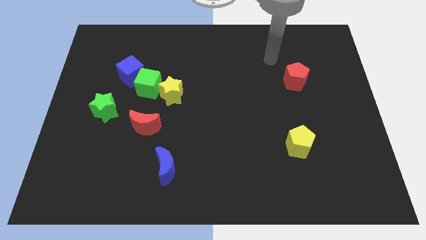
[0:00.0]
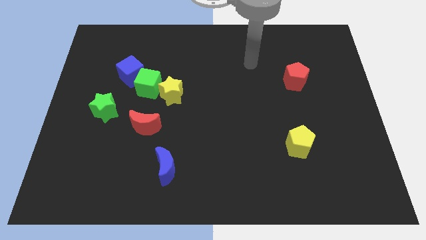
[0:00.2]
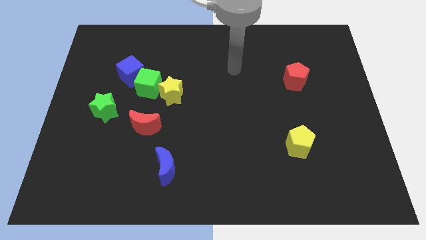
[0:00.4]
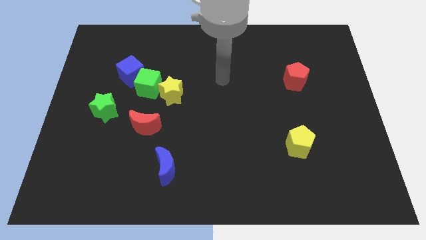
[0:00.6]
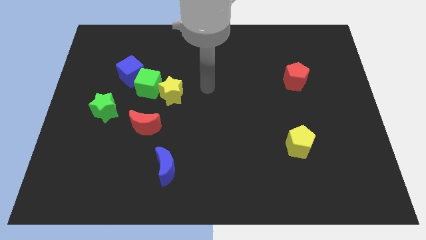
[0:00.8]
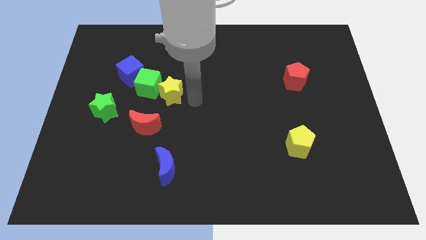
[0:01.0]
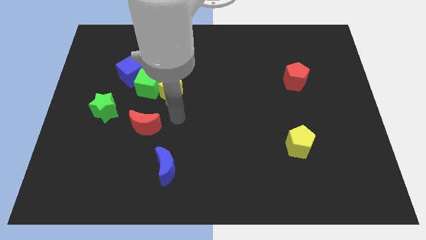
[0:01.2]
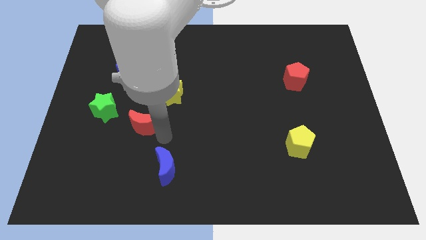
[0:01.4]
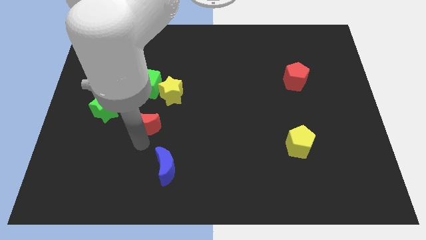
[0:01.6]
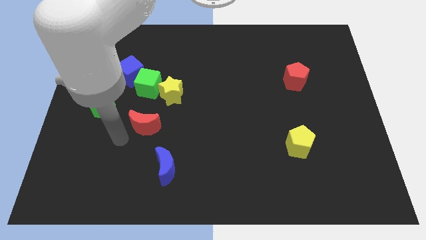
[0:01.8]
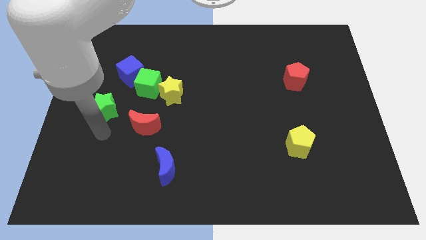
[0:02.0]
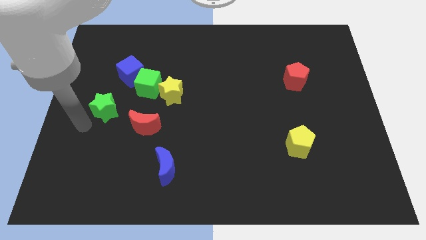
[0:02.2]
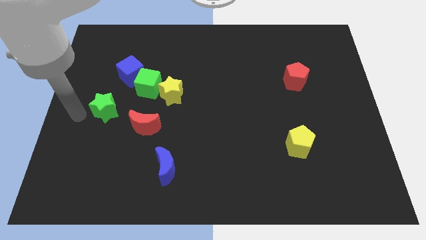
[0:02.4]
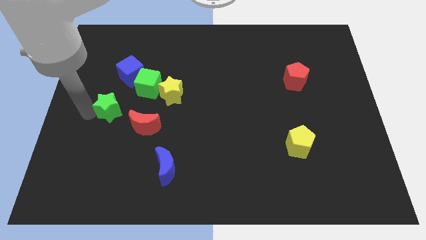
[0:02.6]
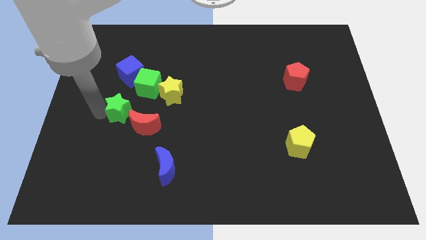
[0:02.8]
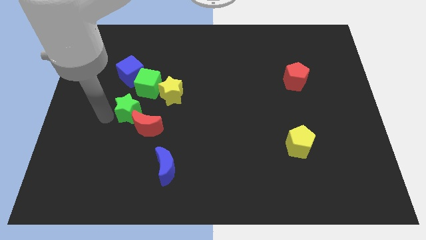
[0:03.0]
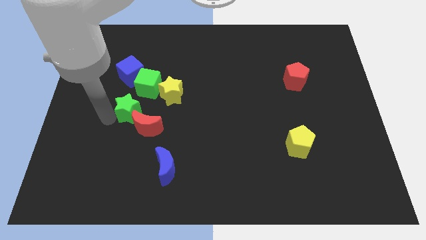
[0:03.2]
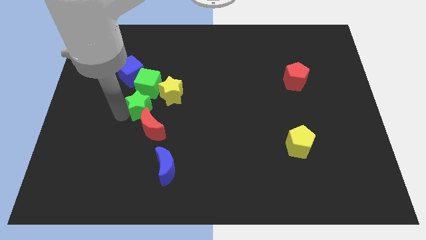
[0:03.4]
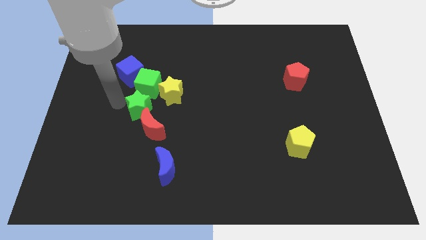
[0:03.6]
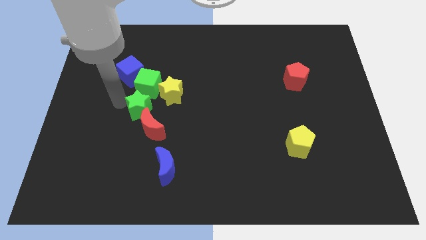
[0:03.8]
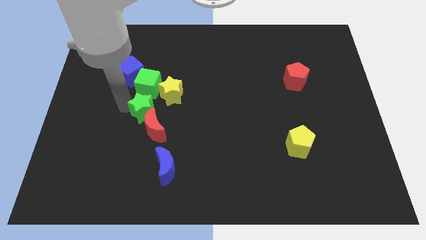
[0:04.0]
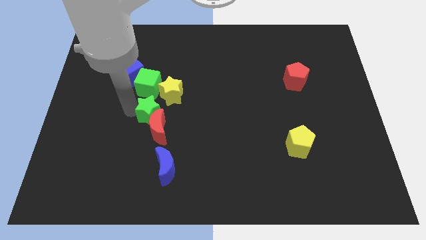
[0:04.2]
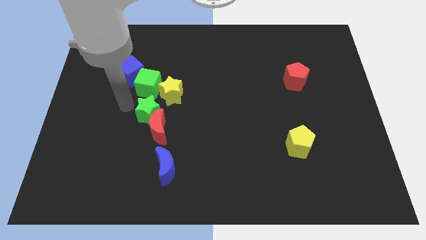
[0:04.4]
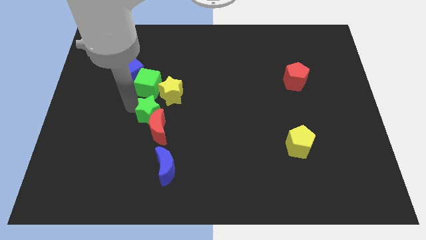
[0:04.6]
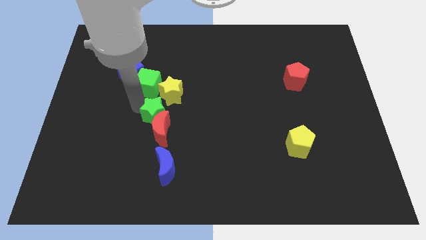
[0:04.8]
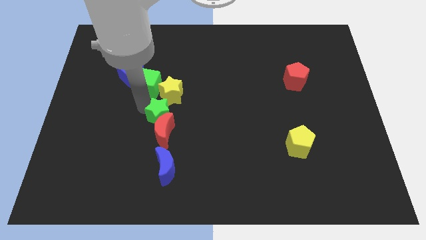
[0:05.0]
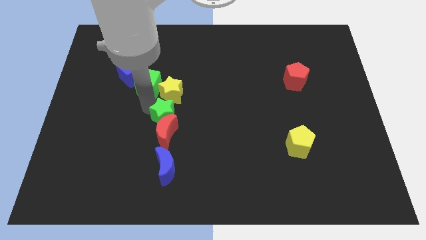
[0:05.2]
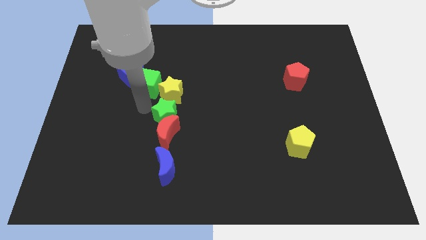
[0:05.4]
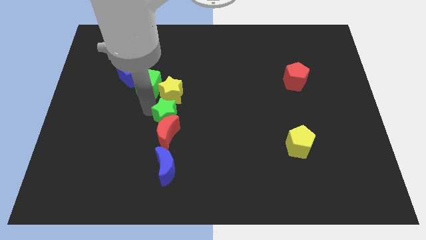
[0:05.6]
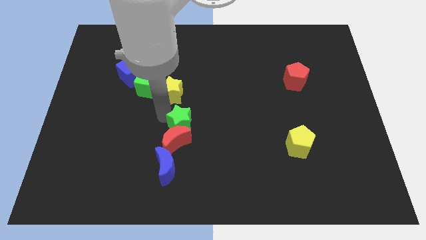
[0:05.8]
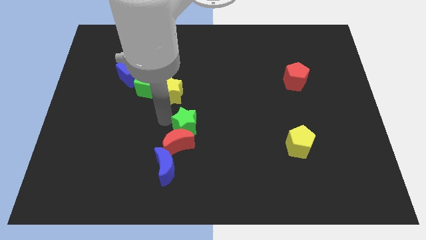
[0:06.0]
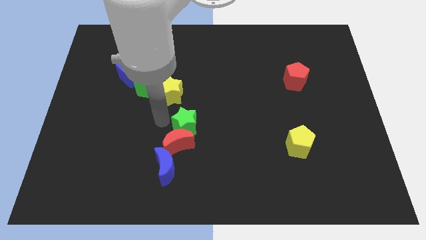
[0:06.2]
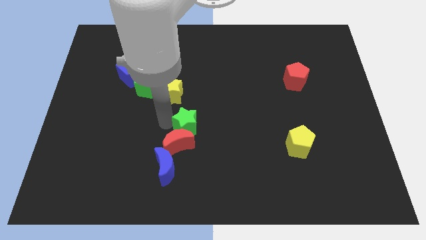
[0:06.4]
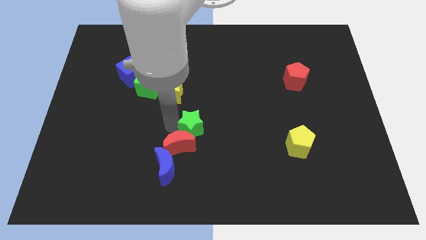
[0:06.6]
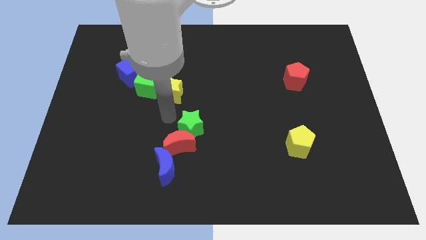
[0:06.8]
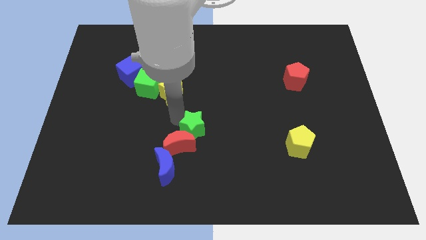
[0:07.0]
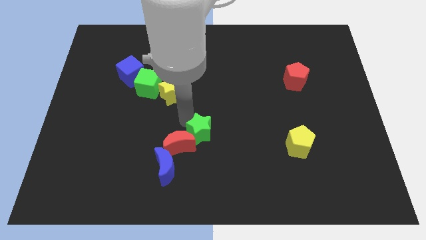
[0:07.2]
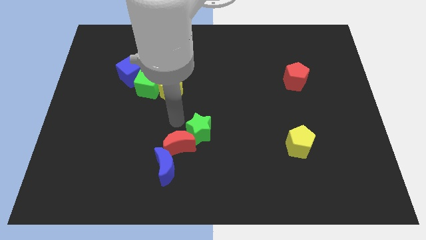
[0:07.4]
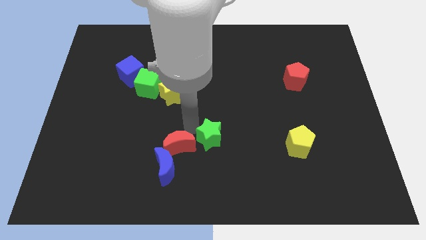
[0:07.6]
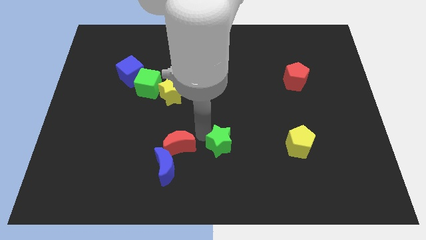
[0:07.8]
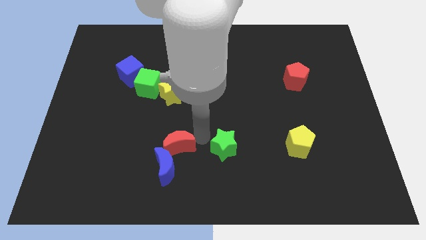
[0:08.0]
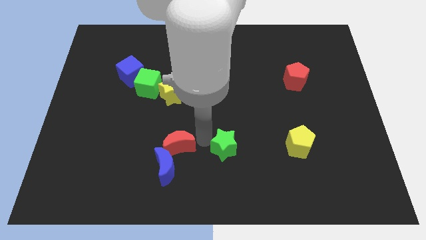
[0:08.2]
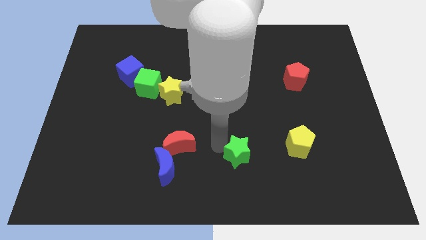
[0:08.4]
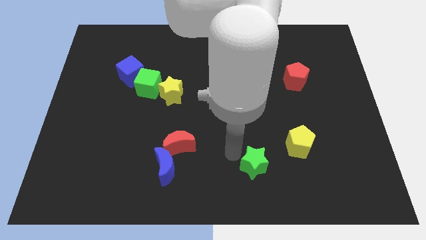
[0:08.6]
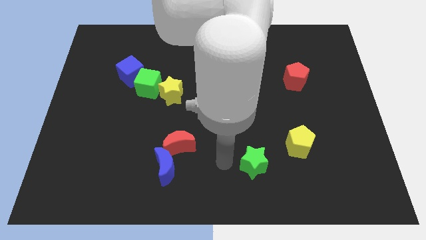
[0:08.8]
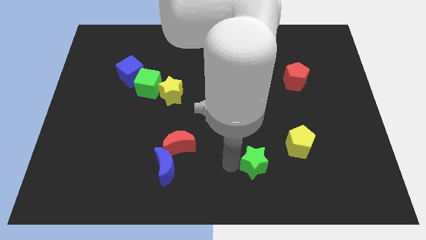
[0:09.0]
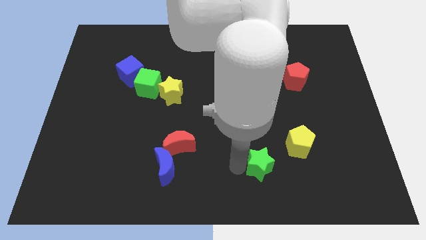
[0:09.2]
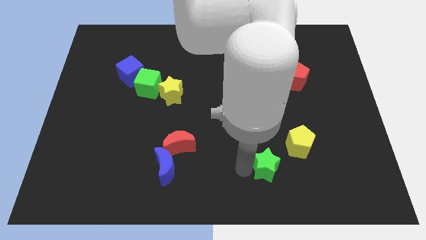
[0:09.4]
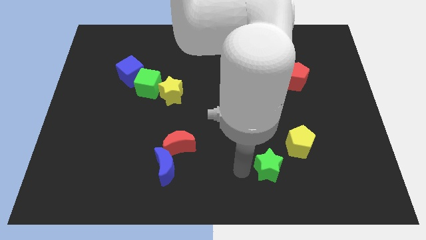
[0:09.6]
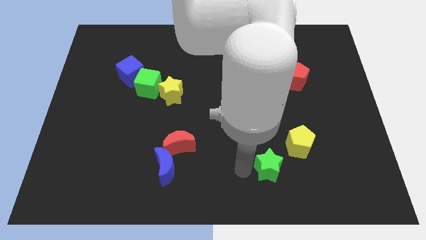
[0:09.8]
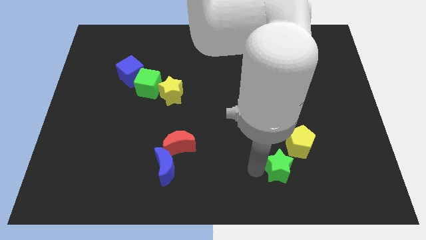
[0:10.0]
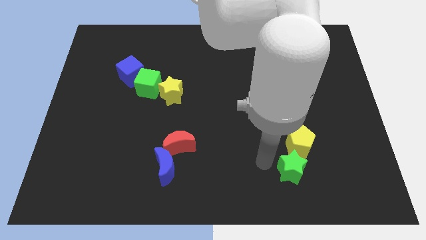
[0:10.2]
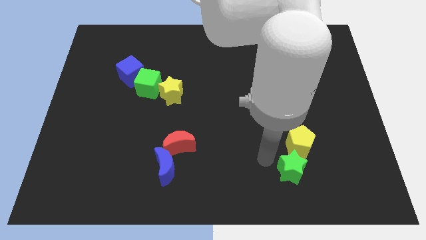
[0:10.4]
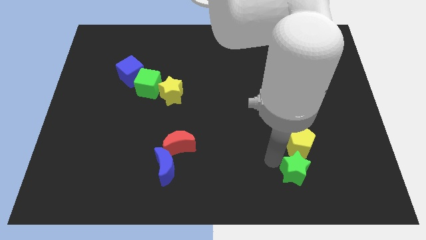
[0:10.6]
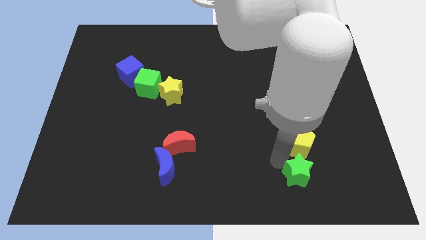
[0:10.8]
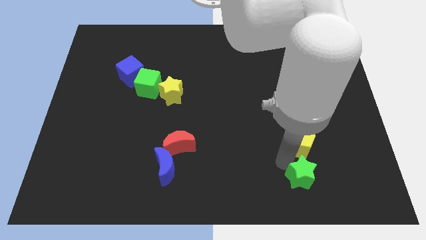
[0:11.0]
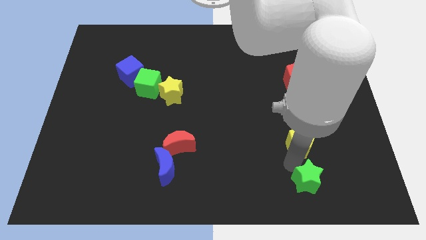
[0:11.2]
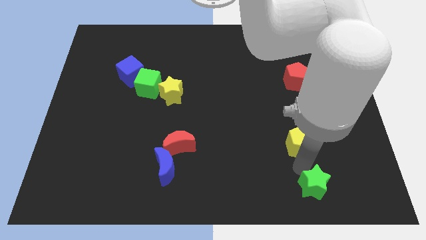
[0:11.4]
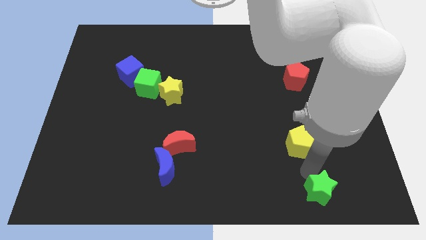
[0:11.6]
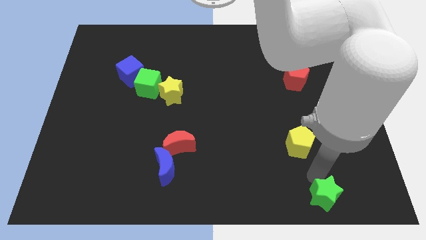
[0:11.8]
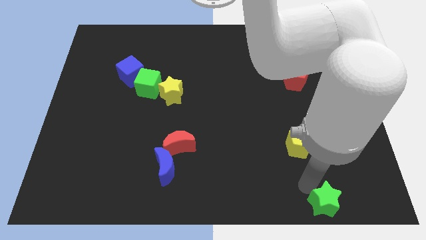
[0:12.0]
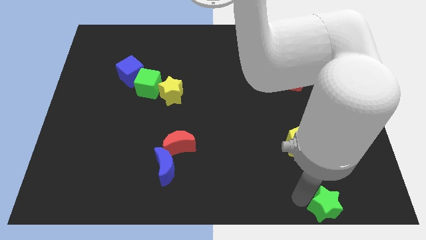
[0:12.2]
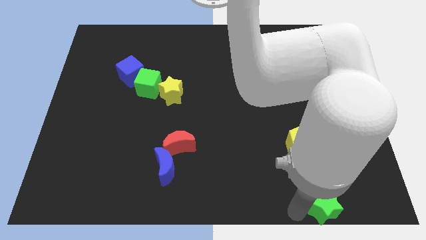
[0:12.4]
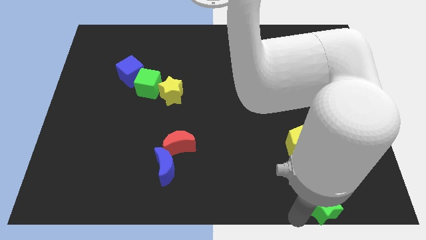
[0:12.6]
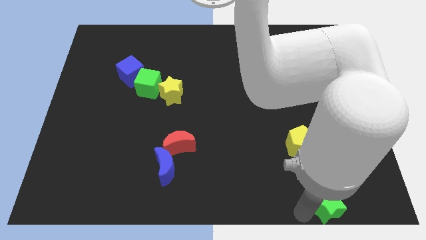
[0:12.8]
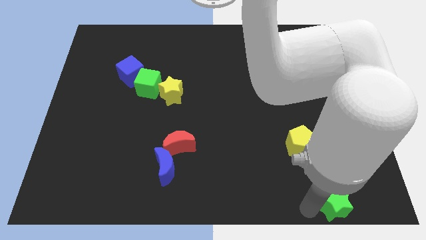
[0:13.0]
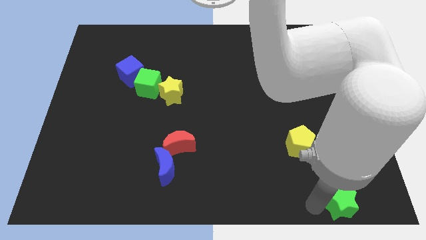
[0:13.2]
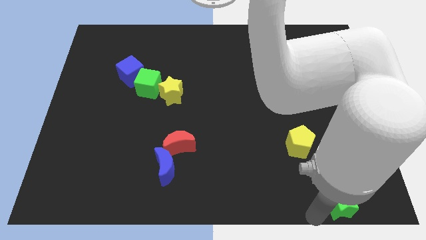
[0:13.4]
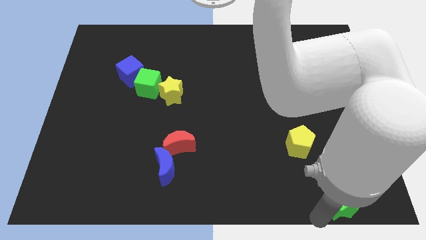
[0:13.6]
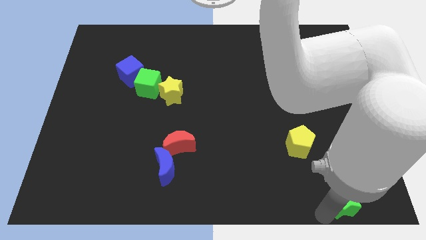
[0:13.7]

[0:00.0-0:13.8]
slide the green star to the bottom right corner
